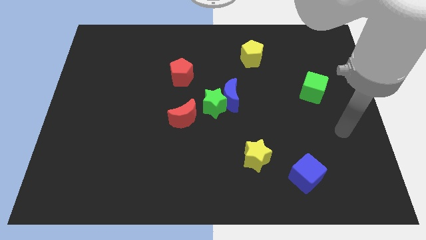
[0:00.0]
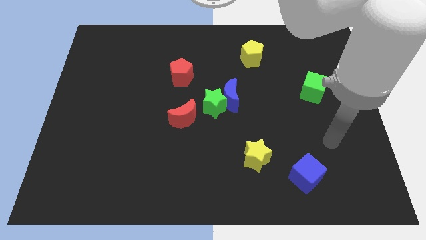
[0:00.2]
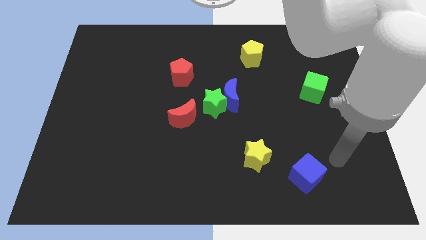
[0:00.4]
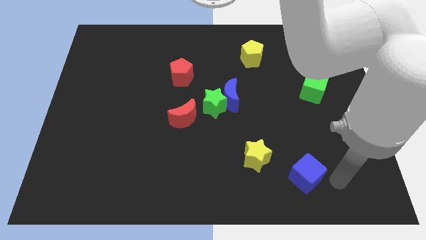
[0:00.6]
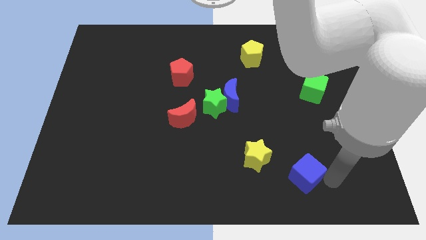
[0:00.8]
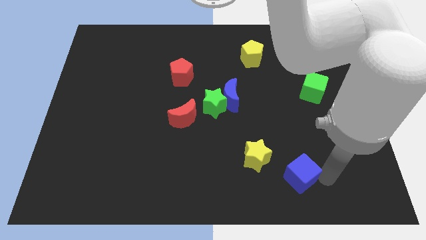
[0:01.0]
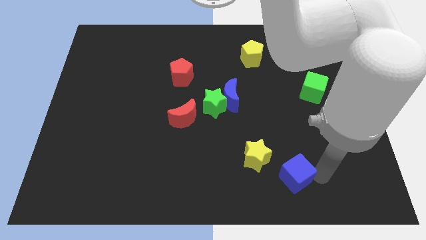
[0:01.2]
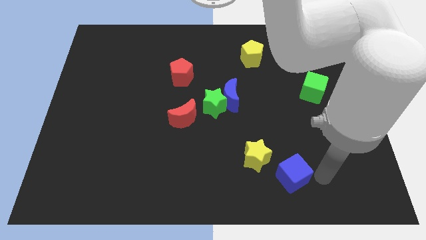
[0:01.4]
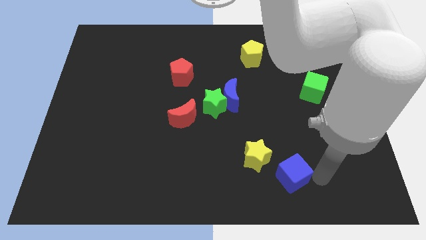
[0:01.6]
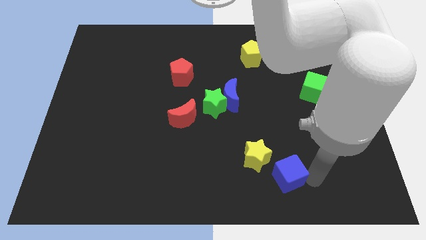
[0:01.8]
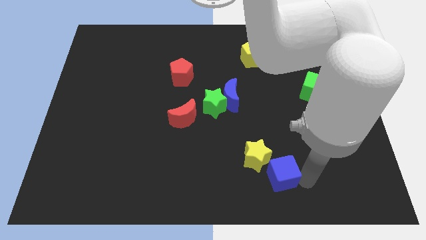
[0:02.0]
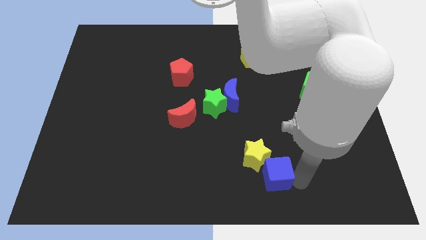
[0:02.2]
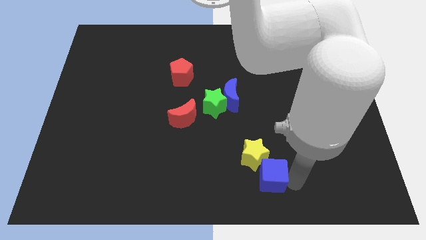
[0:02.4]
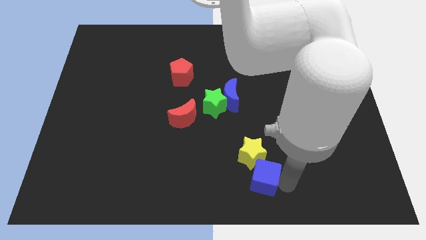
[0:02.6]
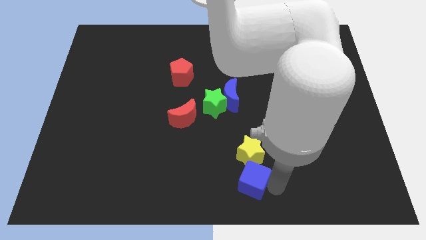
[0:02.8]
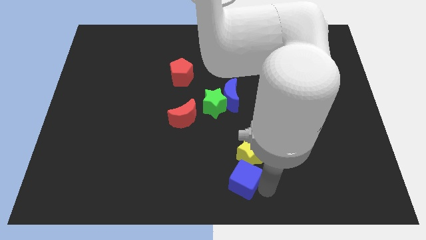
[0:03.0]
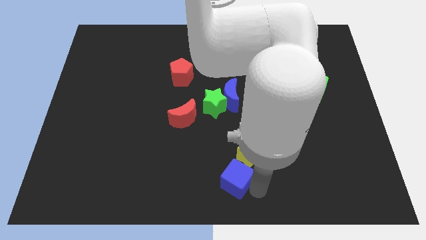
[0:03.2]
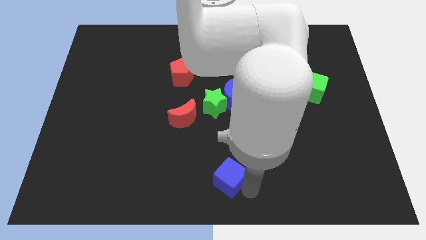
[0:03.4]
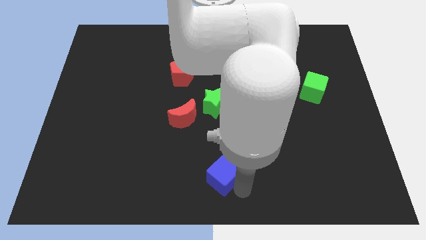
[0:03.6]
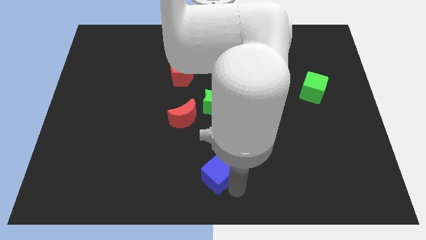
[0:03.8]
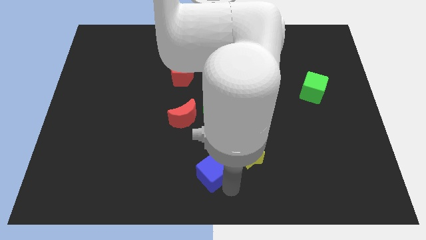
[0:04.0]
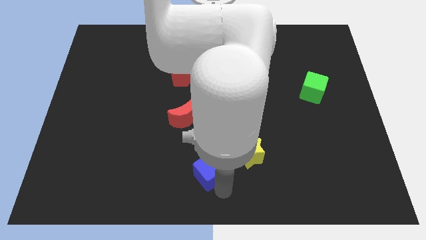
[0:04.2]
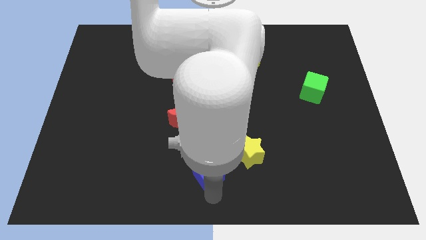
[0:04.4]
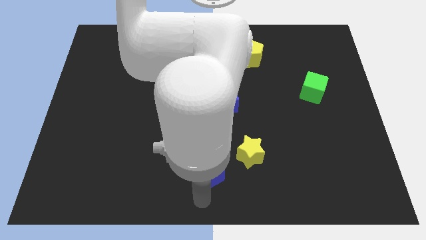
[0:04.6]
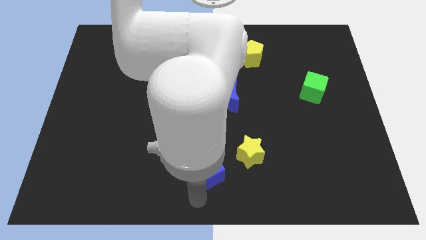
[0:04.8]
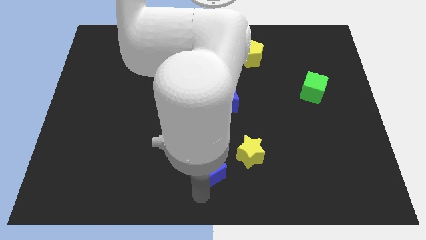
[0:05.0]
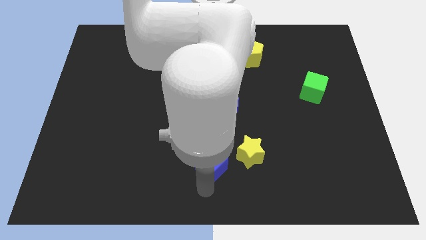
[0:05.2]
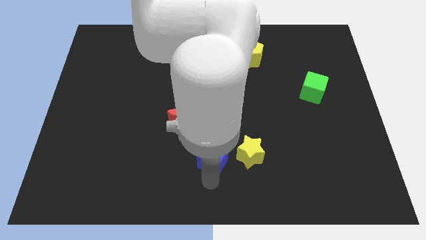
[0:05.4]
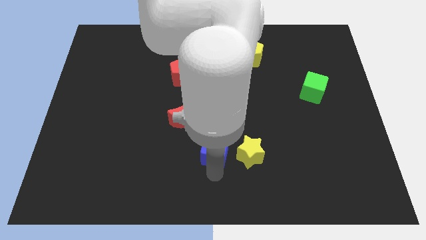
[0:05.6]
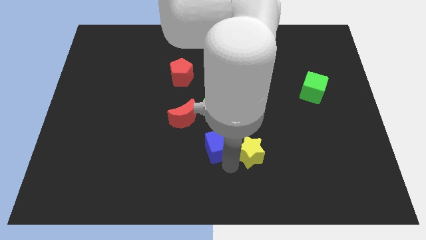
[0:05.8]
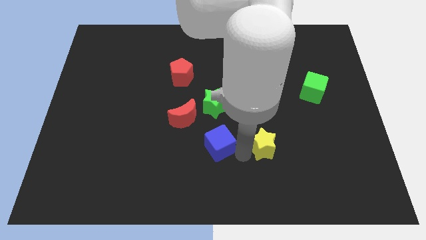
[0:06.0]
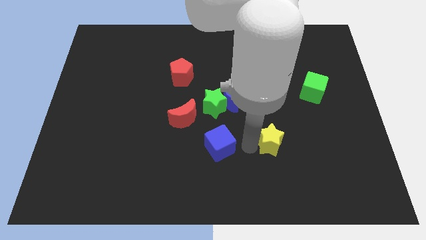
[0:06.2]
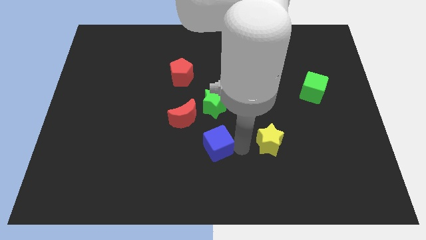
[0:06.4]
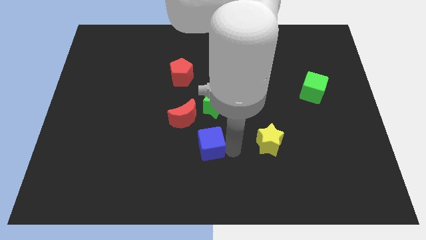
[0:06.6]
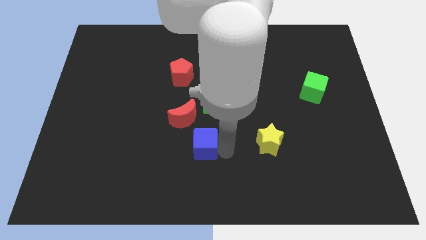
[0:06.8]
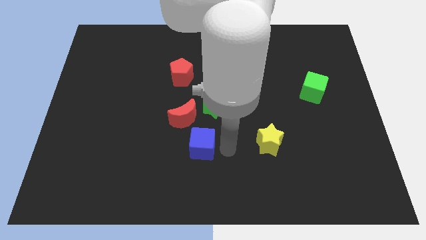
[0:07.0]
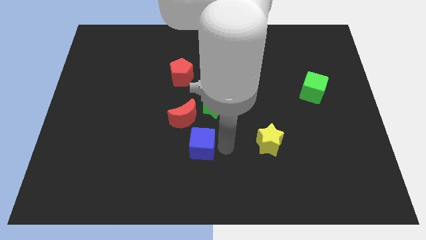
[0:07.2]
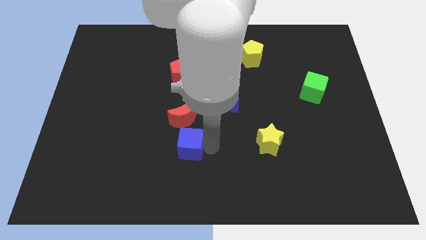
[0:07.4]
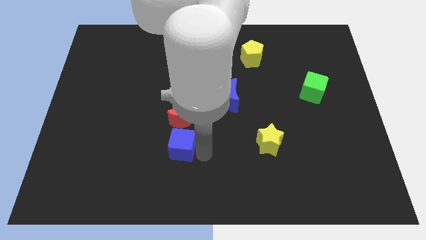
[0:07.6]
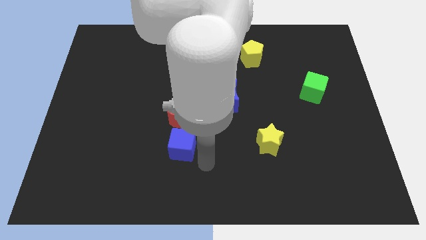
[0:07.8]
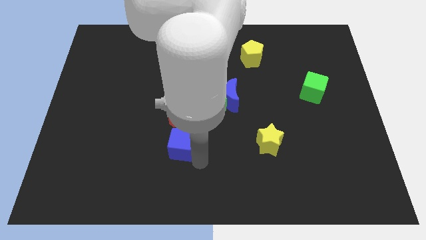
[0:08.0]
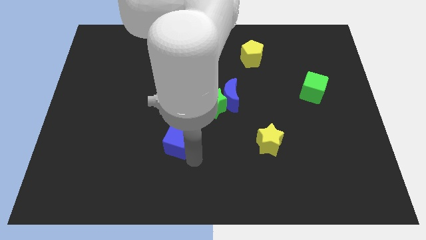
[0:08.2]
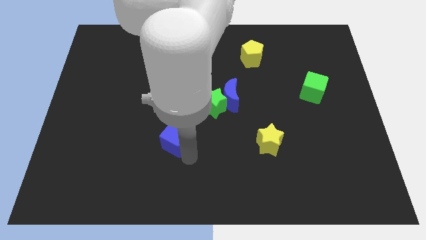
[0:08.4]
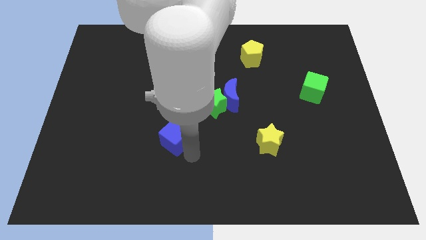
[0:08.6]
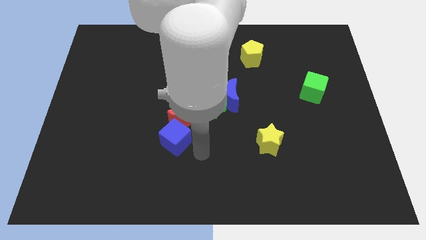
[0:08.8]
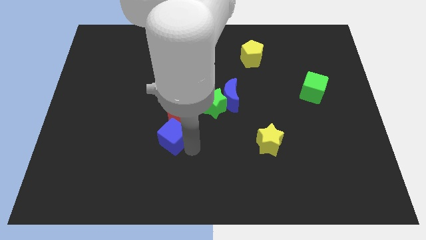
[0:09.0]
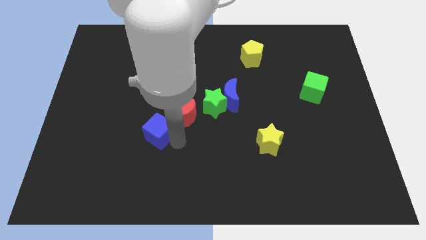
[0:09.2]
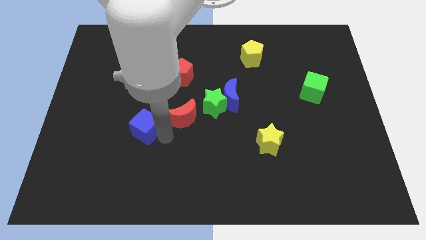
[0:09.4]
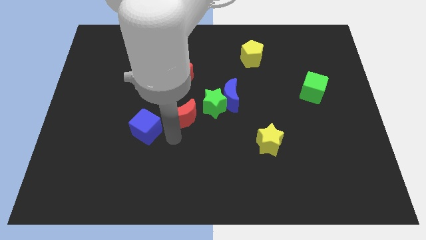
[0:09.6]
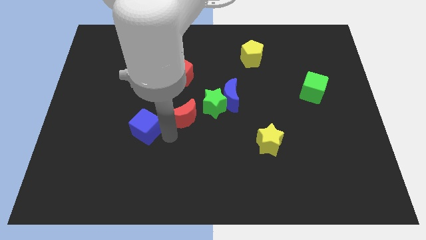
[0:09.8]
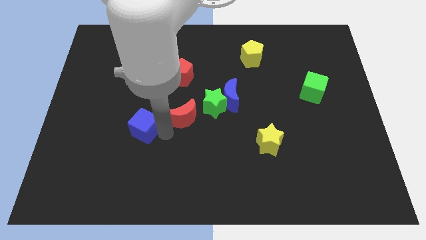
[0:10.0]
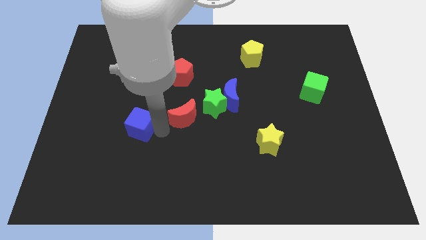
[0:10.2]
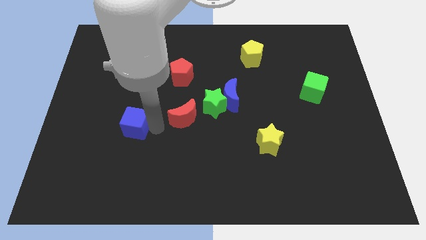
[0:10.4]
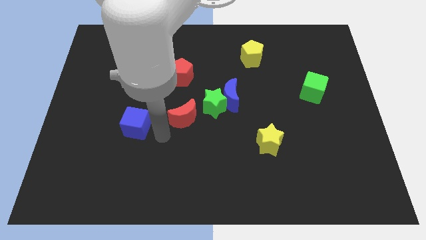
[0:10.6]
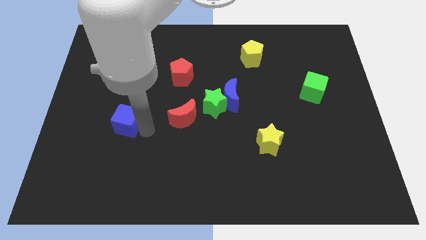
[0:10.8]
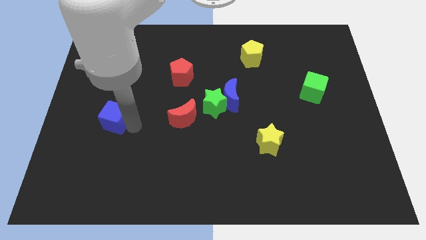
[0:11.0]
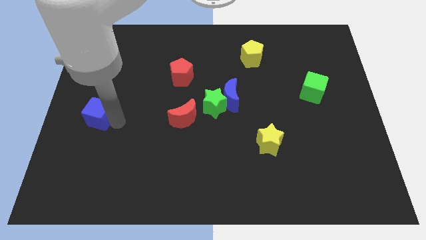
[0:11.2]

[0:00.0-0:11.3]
put the blue cube to the center left

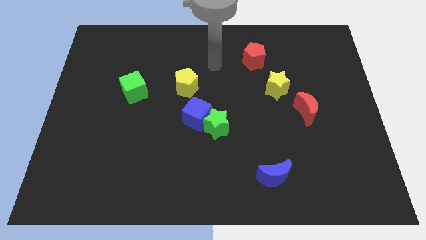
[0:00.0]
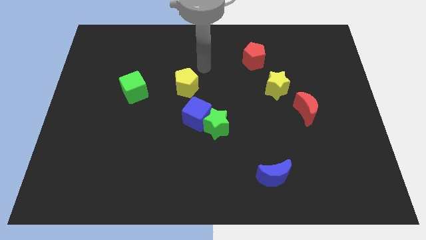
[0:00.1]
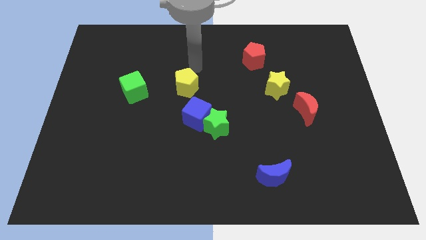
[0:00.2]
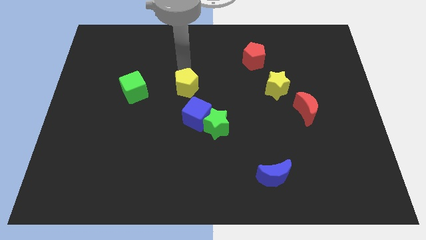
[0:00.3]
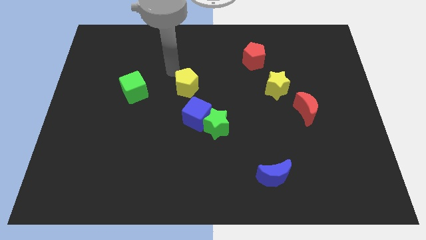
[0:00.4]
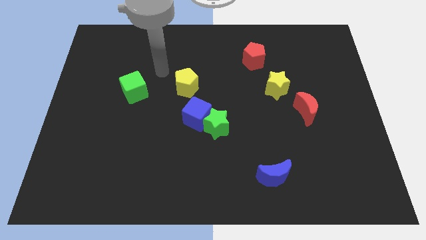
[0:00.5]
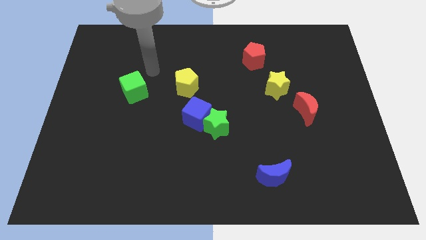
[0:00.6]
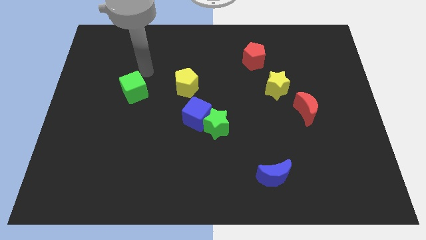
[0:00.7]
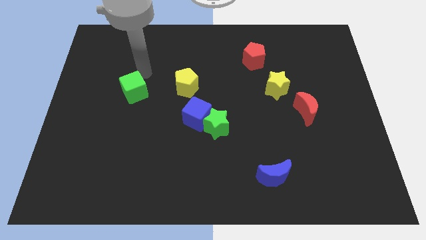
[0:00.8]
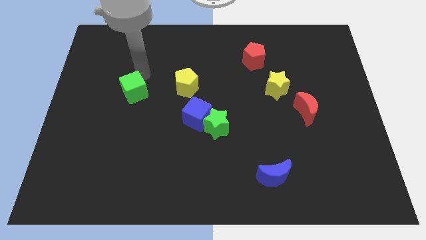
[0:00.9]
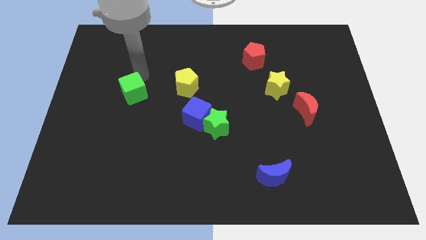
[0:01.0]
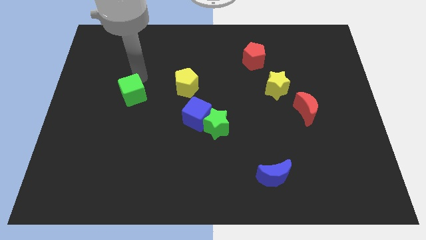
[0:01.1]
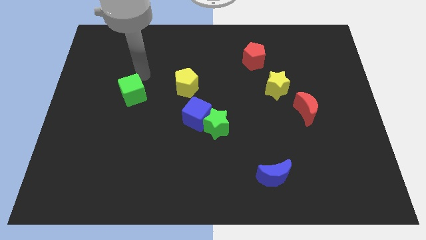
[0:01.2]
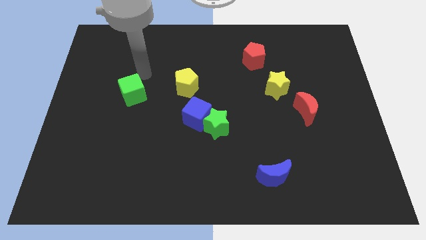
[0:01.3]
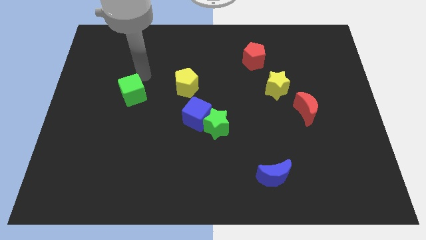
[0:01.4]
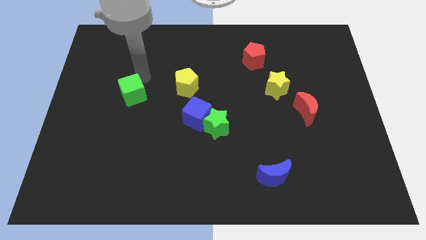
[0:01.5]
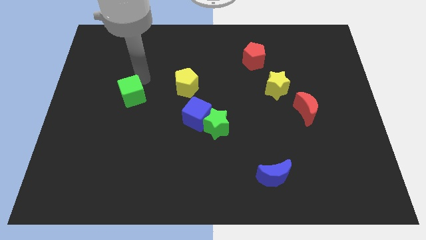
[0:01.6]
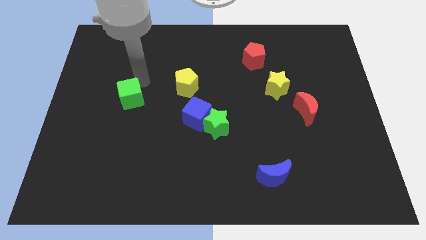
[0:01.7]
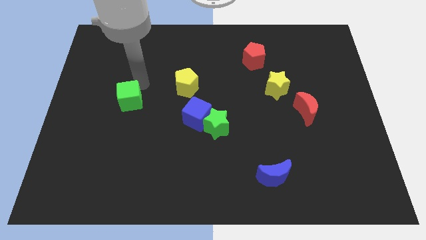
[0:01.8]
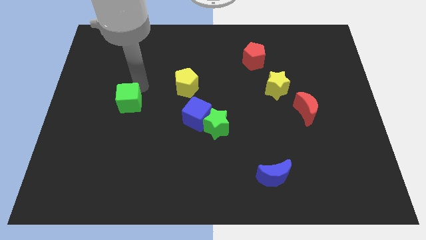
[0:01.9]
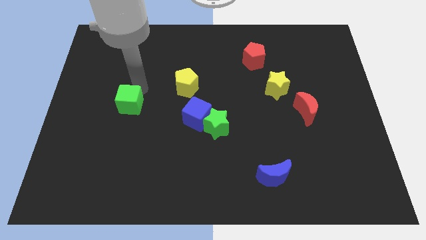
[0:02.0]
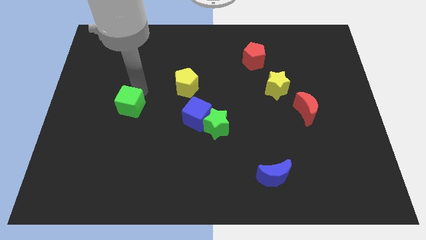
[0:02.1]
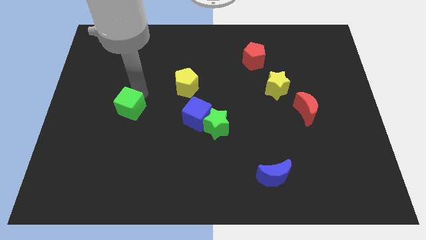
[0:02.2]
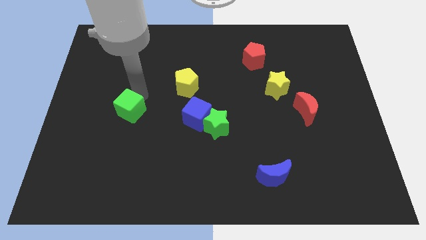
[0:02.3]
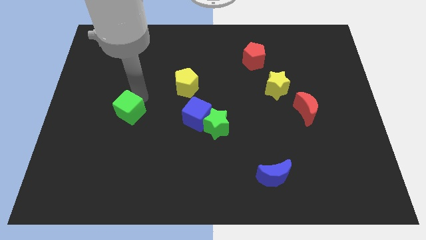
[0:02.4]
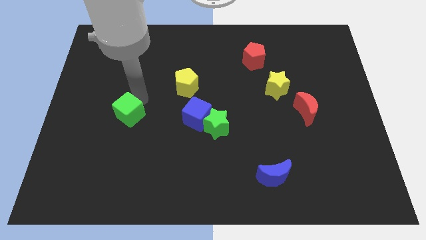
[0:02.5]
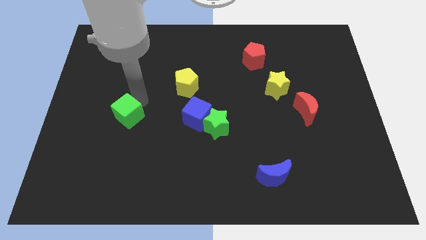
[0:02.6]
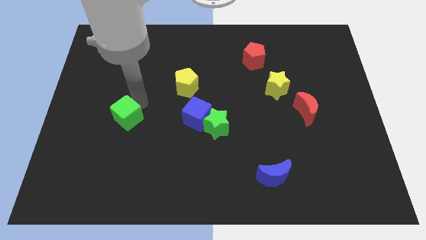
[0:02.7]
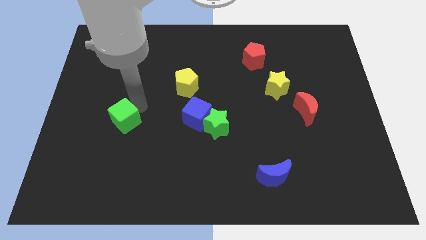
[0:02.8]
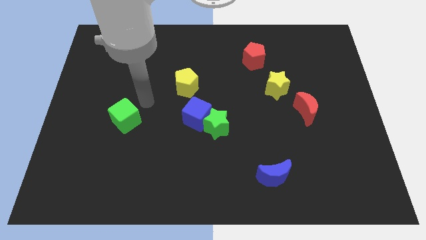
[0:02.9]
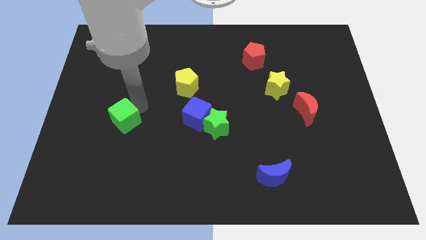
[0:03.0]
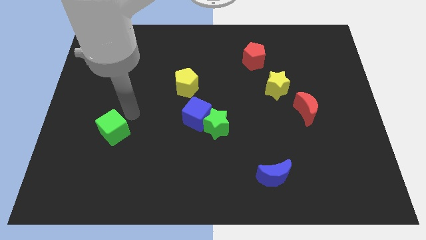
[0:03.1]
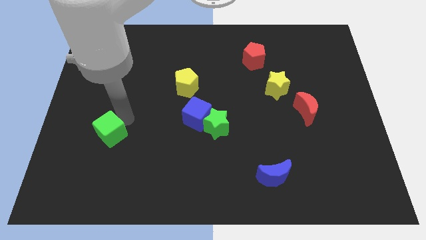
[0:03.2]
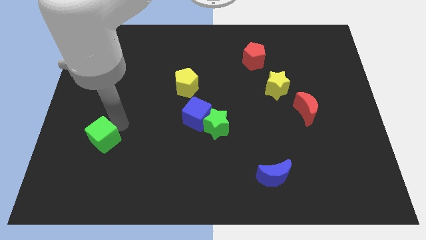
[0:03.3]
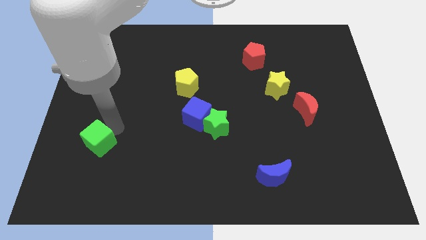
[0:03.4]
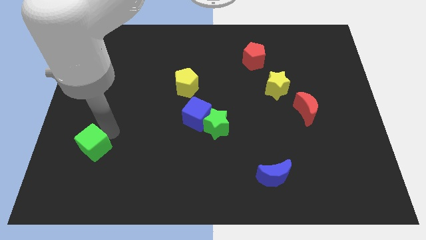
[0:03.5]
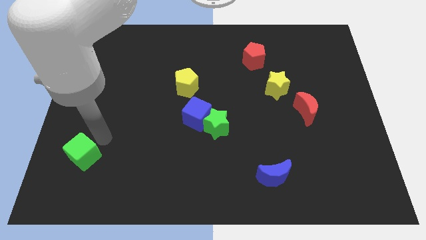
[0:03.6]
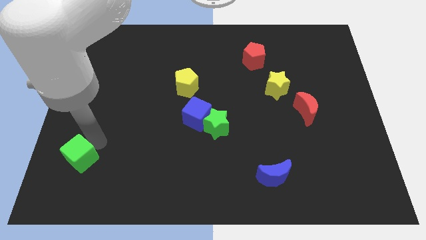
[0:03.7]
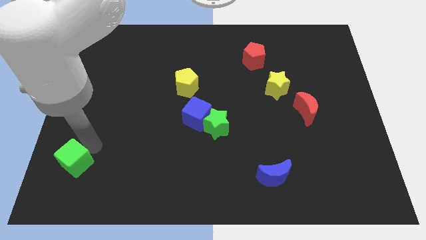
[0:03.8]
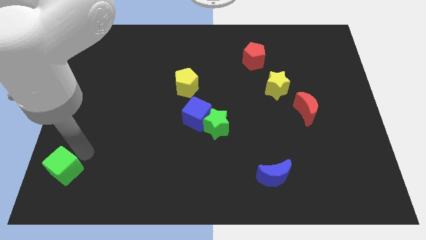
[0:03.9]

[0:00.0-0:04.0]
slide the green cube to the bottom left of the board
